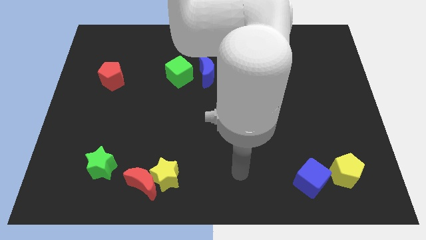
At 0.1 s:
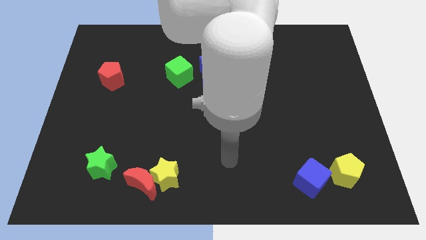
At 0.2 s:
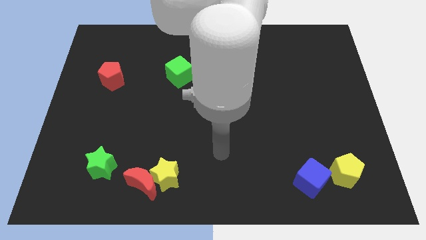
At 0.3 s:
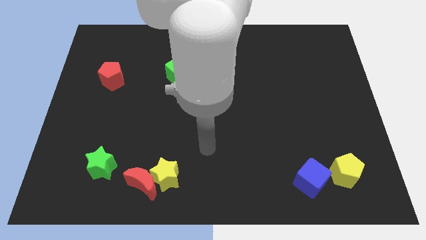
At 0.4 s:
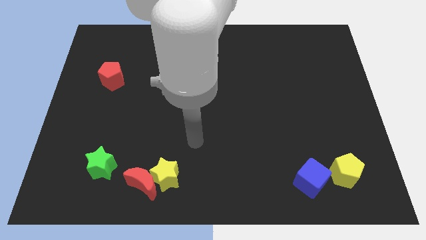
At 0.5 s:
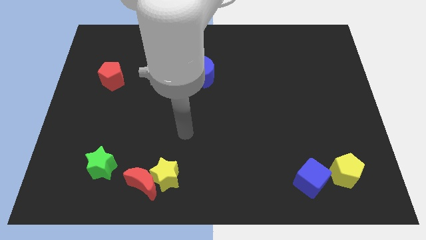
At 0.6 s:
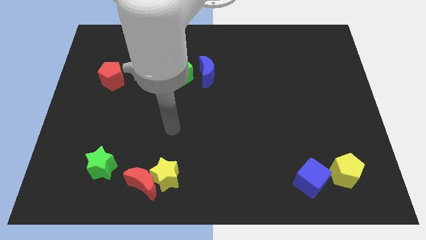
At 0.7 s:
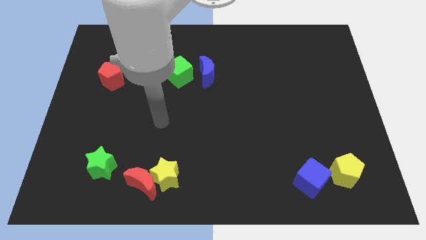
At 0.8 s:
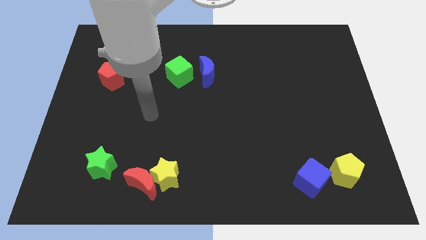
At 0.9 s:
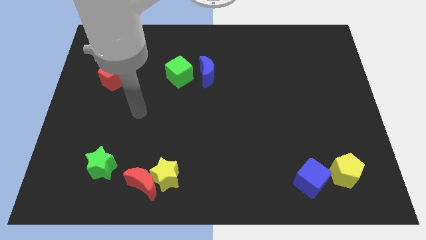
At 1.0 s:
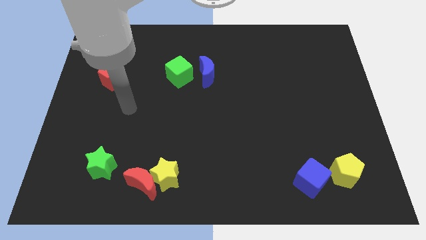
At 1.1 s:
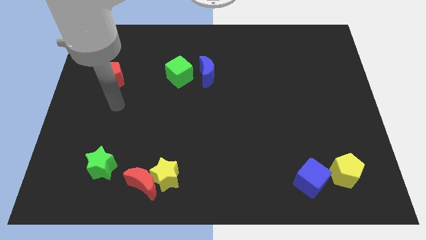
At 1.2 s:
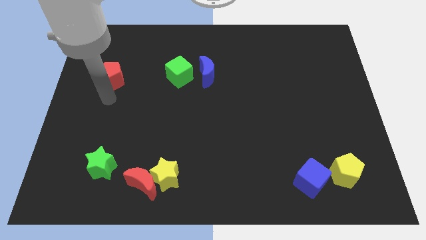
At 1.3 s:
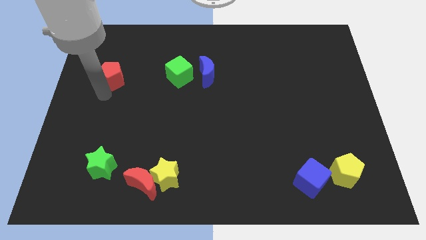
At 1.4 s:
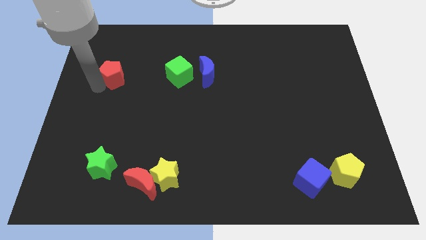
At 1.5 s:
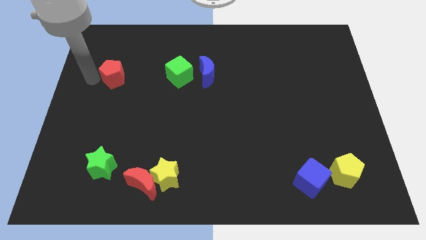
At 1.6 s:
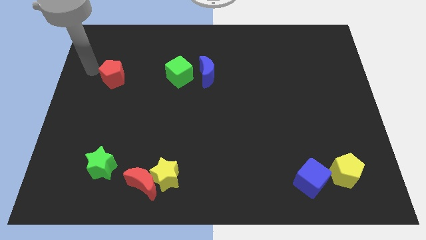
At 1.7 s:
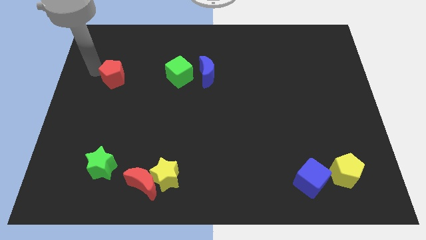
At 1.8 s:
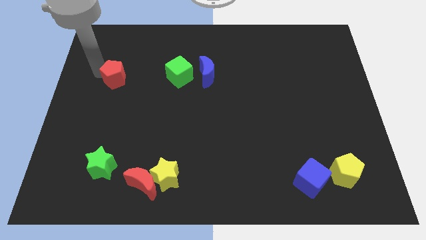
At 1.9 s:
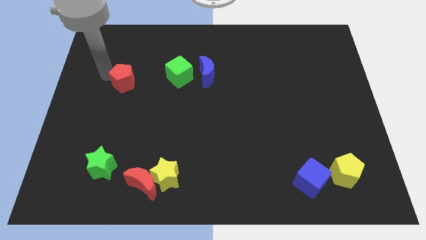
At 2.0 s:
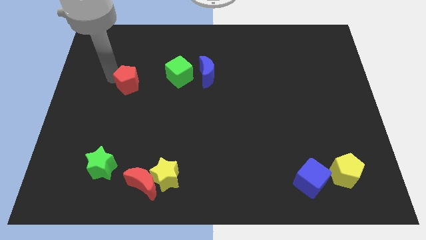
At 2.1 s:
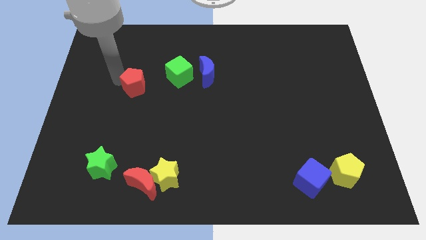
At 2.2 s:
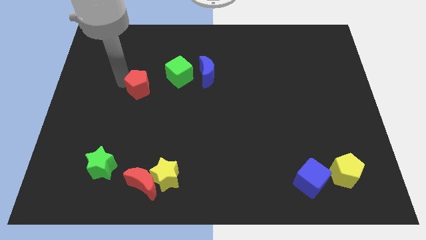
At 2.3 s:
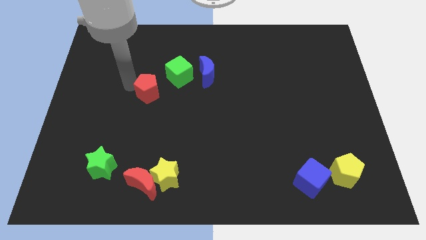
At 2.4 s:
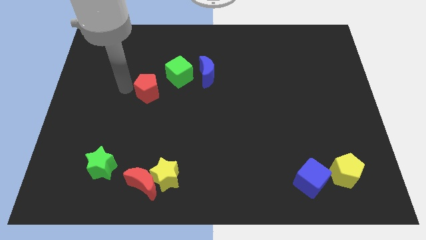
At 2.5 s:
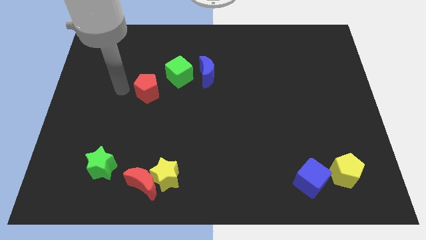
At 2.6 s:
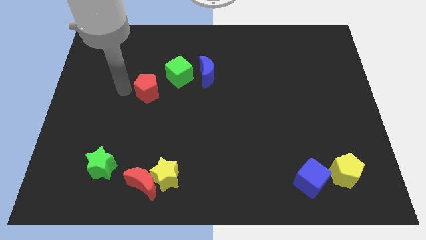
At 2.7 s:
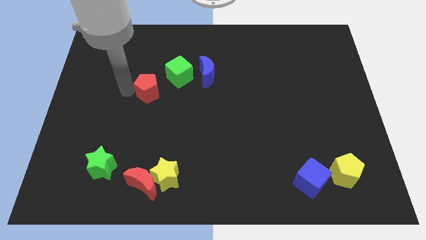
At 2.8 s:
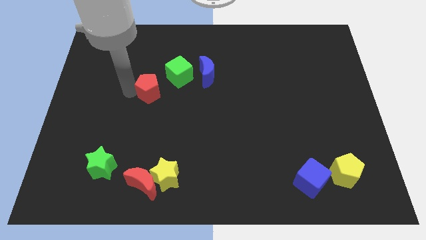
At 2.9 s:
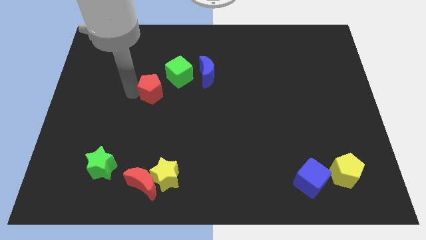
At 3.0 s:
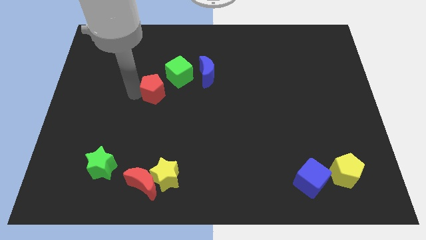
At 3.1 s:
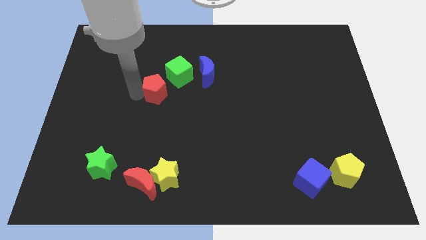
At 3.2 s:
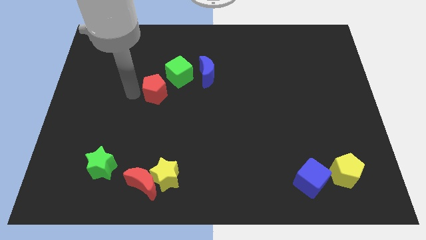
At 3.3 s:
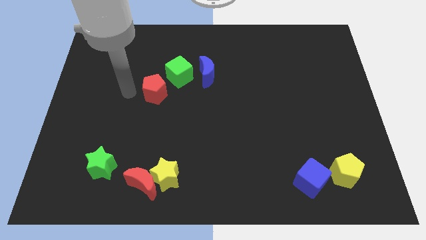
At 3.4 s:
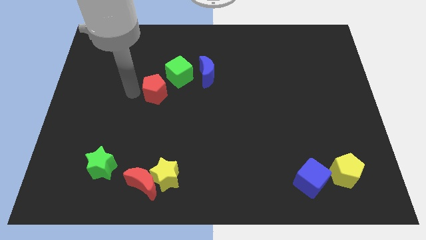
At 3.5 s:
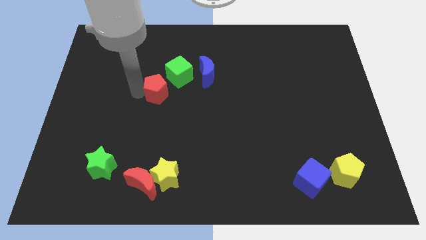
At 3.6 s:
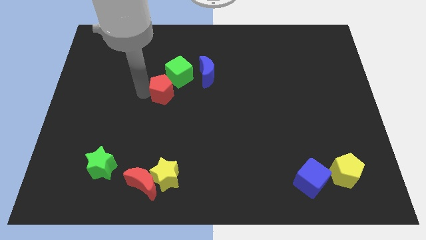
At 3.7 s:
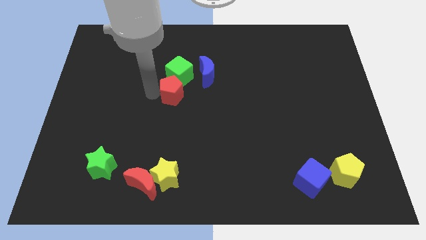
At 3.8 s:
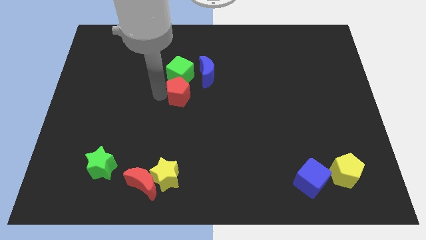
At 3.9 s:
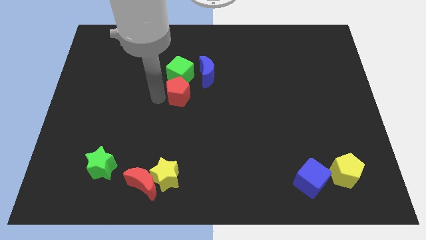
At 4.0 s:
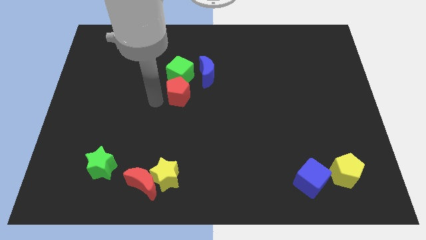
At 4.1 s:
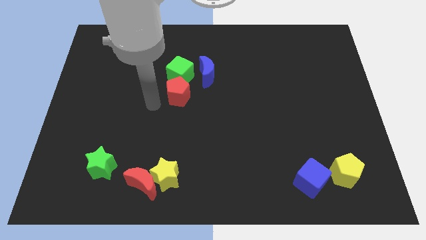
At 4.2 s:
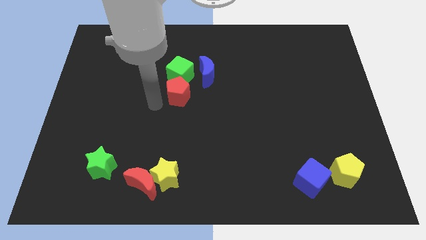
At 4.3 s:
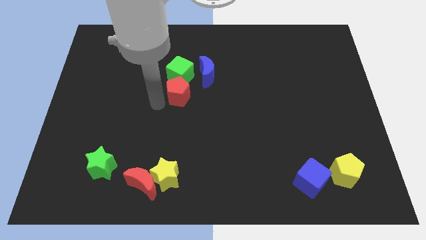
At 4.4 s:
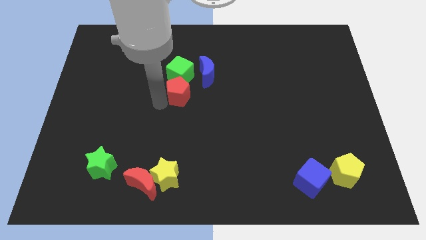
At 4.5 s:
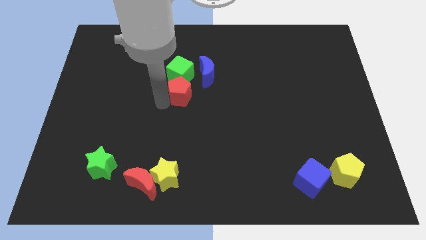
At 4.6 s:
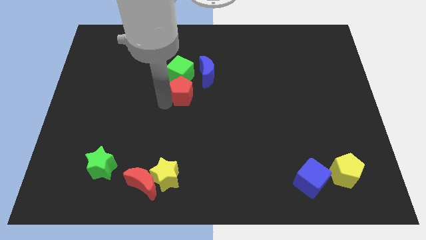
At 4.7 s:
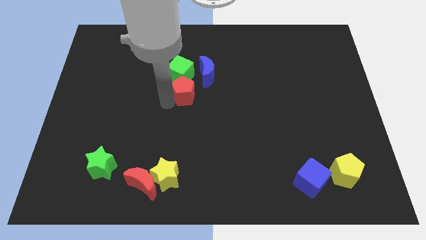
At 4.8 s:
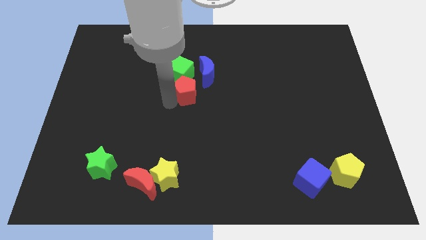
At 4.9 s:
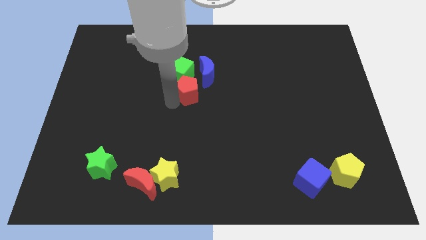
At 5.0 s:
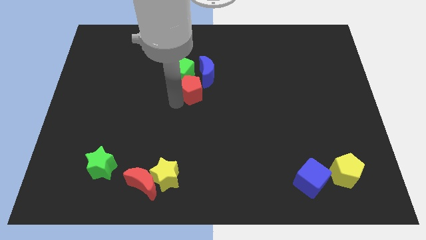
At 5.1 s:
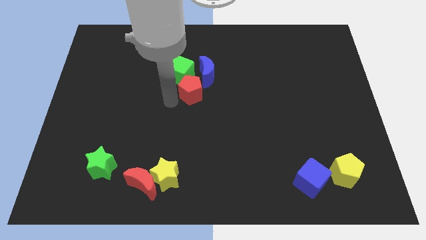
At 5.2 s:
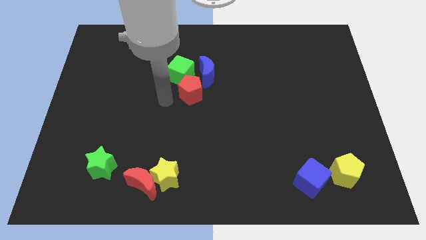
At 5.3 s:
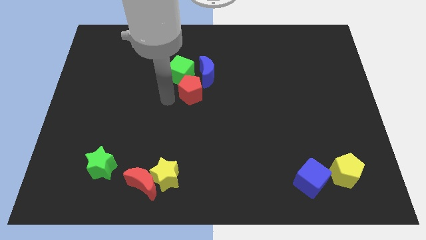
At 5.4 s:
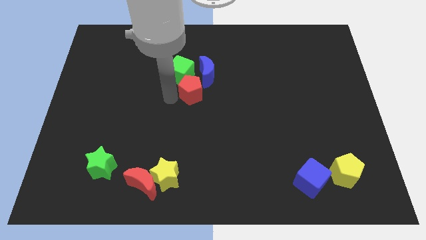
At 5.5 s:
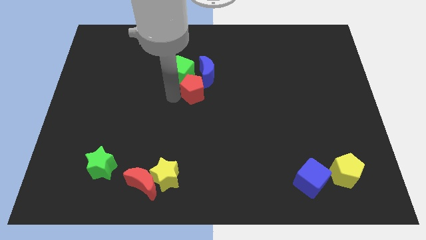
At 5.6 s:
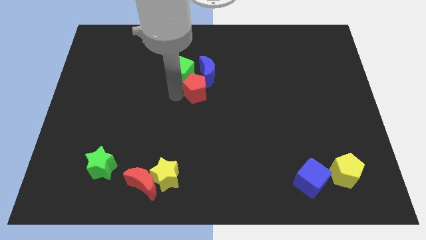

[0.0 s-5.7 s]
move the red pentagon to the right

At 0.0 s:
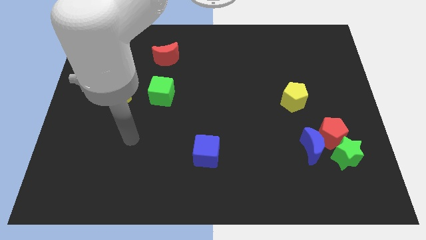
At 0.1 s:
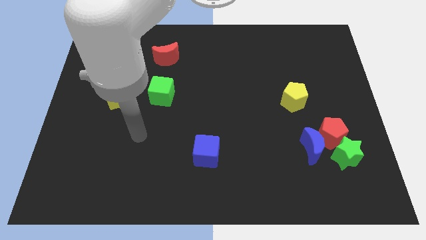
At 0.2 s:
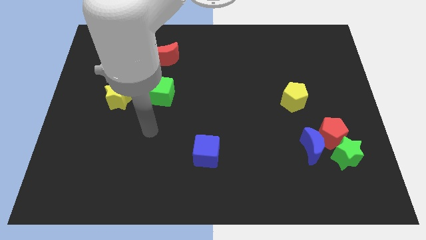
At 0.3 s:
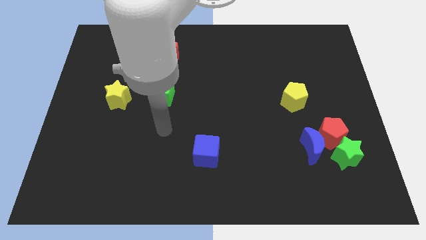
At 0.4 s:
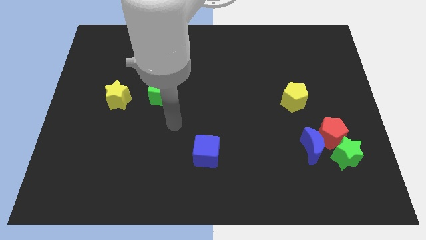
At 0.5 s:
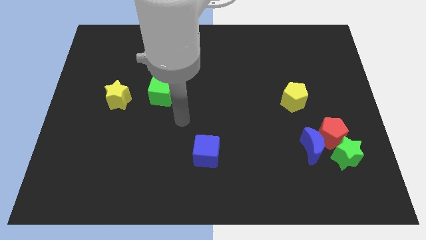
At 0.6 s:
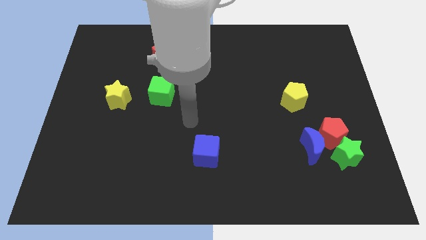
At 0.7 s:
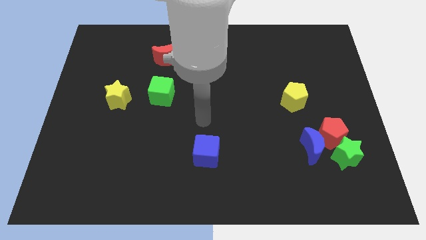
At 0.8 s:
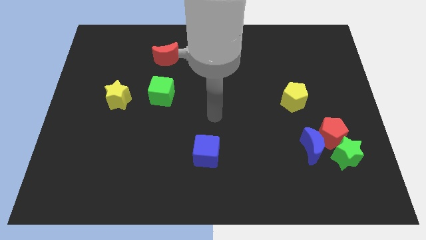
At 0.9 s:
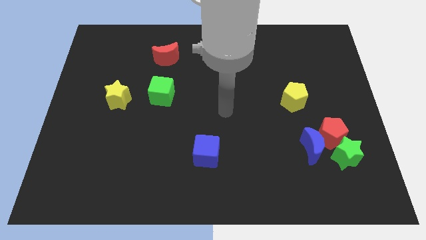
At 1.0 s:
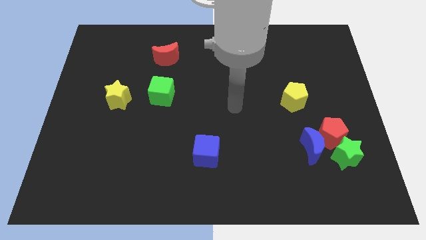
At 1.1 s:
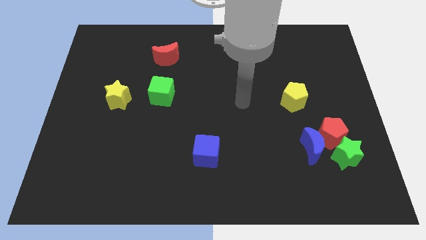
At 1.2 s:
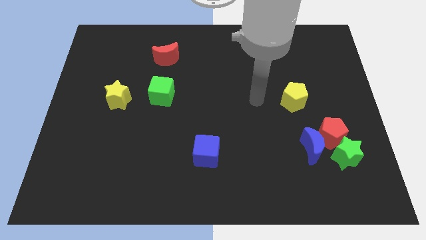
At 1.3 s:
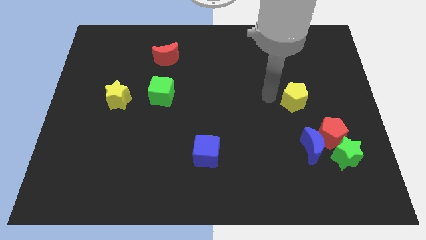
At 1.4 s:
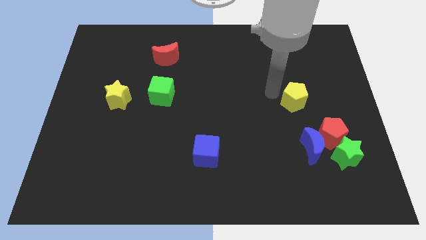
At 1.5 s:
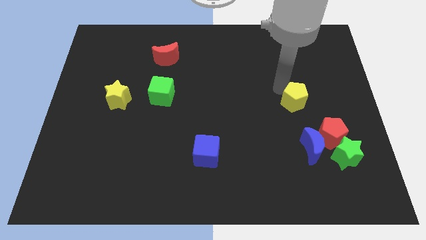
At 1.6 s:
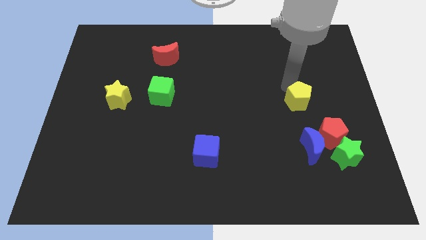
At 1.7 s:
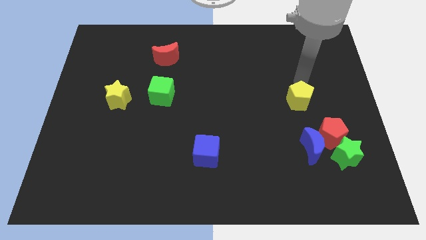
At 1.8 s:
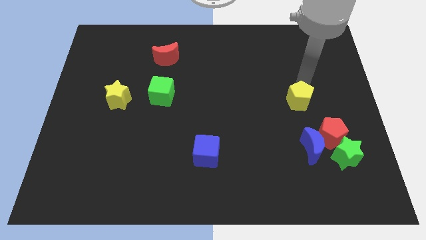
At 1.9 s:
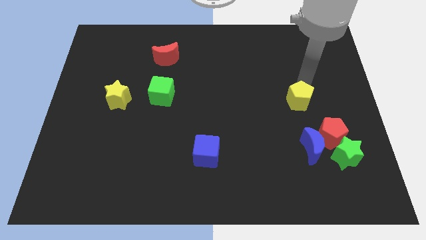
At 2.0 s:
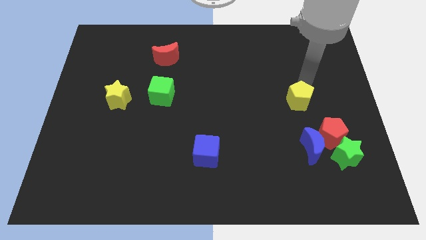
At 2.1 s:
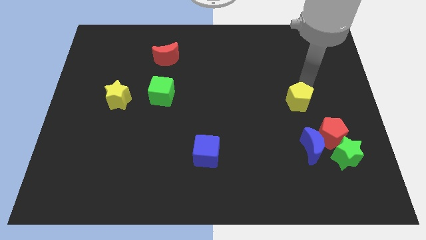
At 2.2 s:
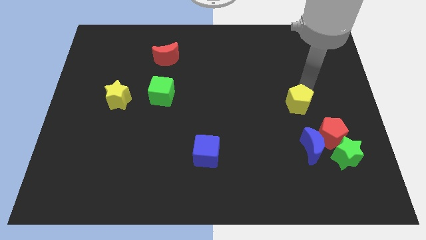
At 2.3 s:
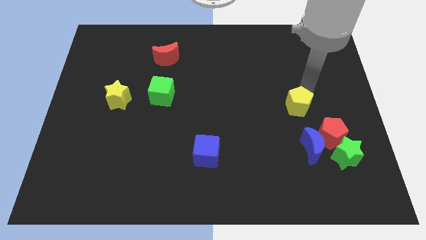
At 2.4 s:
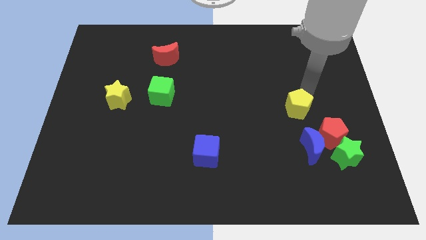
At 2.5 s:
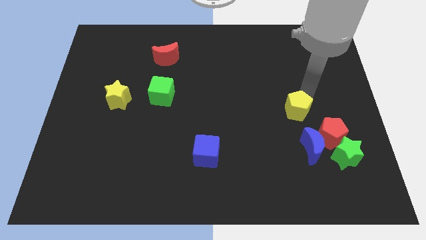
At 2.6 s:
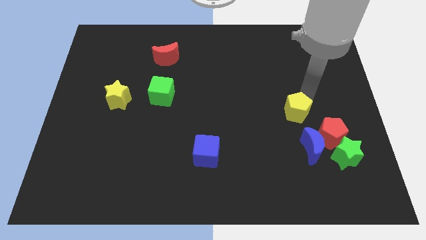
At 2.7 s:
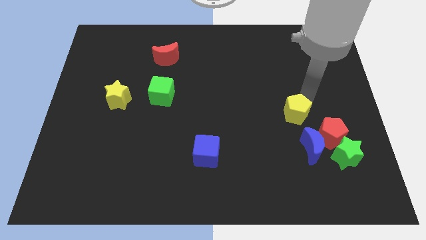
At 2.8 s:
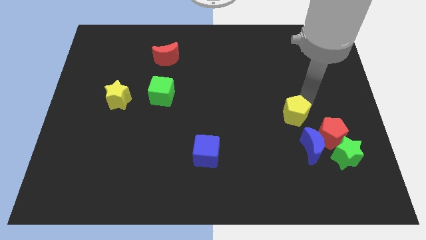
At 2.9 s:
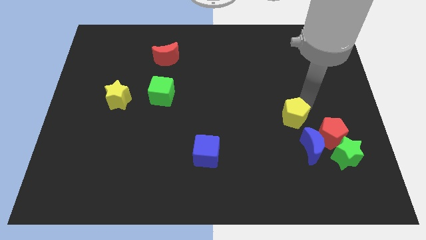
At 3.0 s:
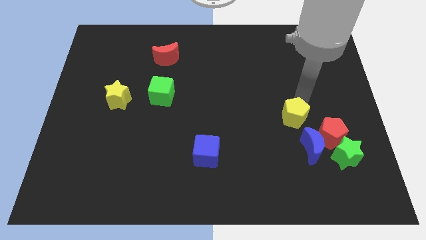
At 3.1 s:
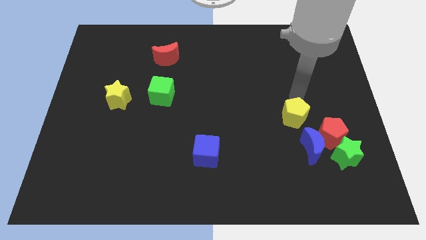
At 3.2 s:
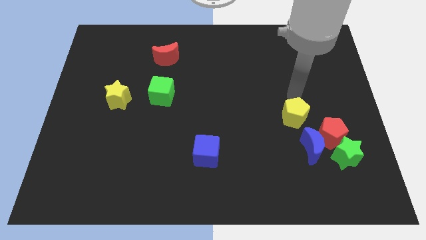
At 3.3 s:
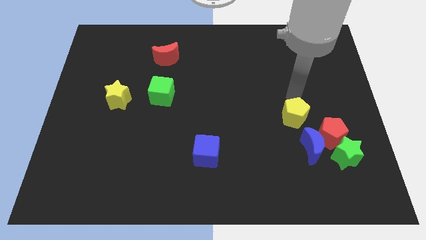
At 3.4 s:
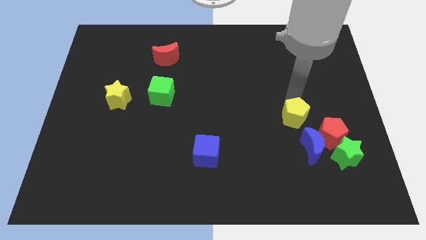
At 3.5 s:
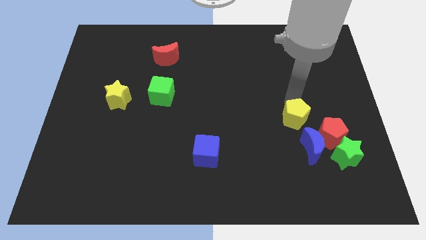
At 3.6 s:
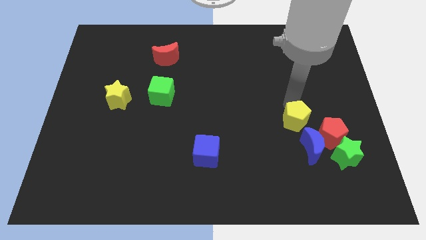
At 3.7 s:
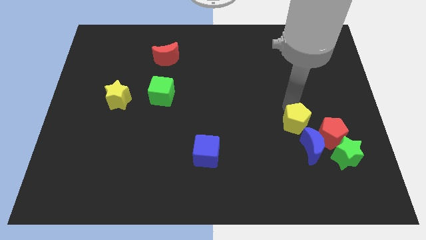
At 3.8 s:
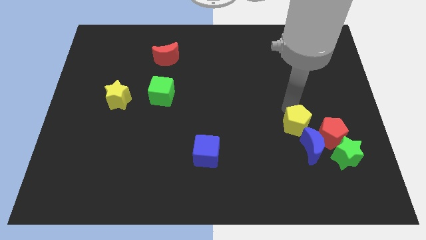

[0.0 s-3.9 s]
move the yellow pentagon slightly down
